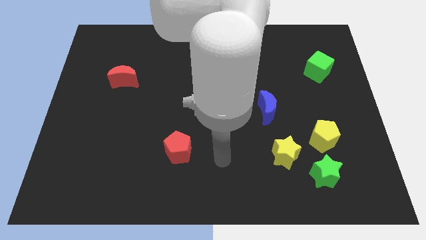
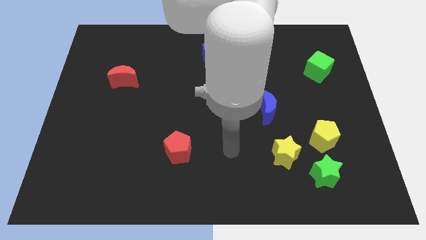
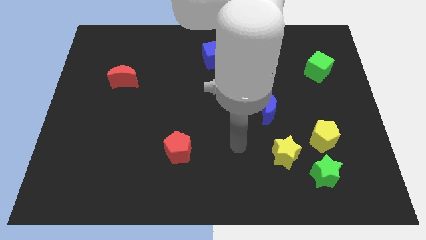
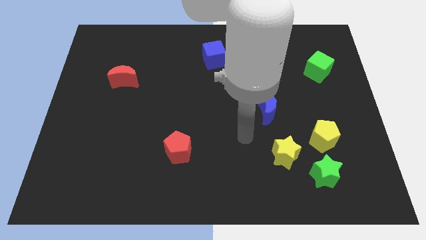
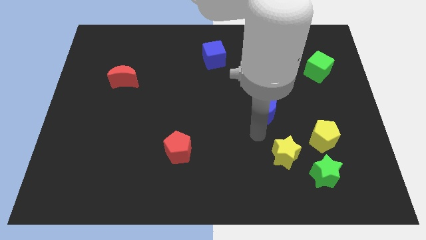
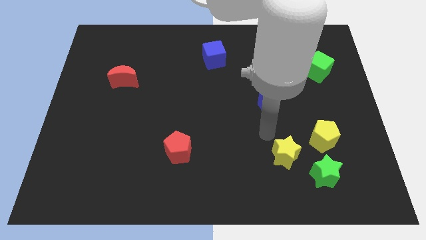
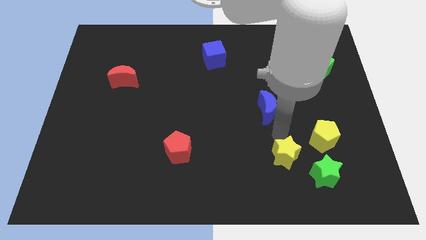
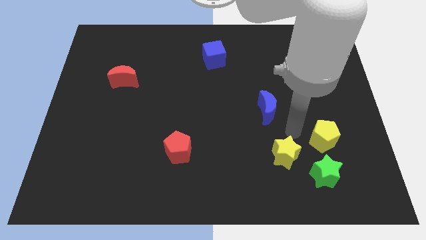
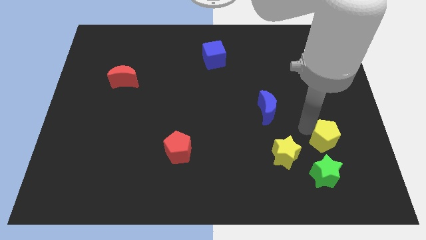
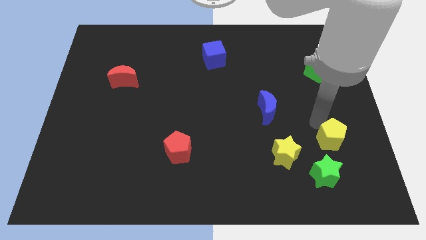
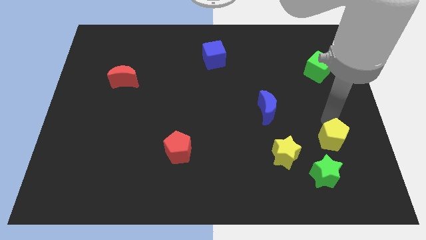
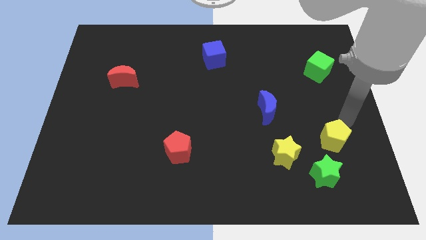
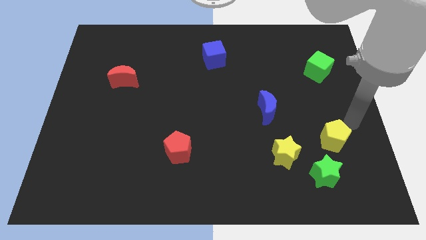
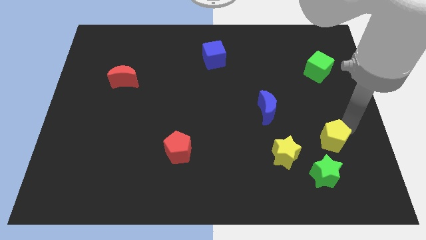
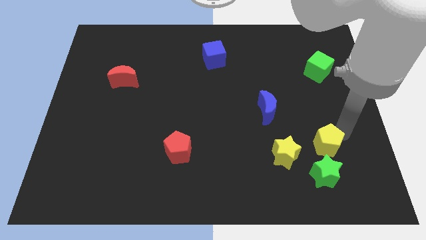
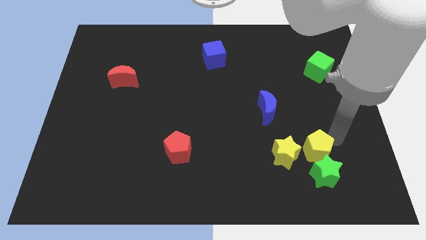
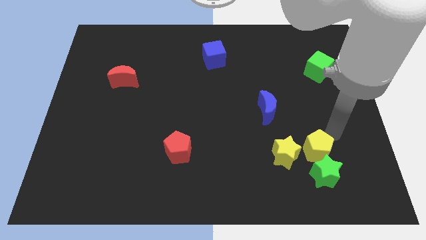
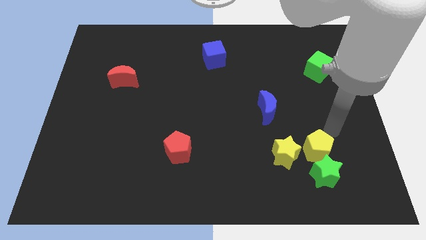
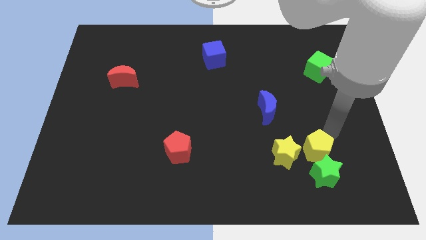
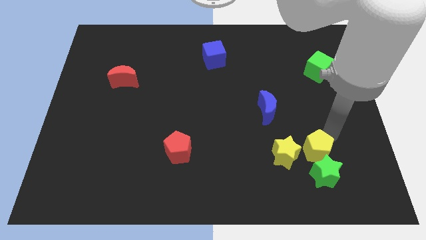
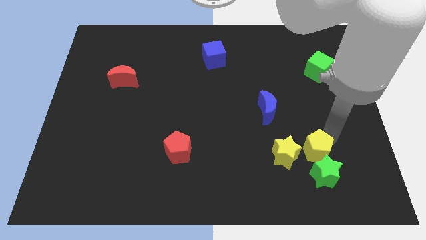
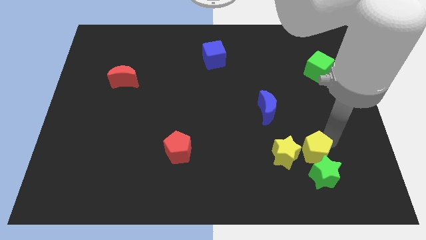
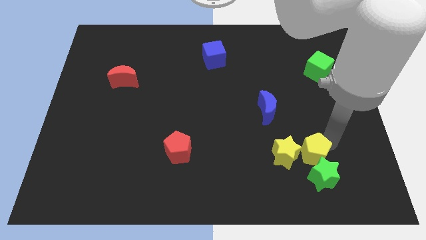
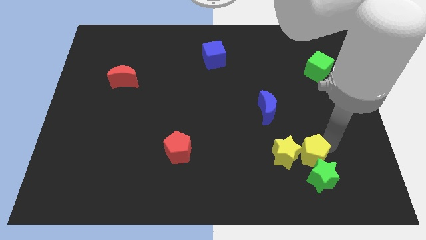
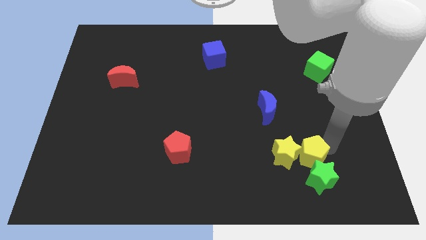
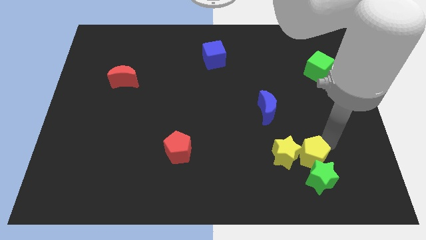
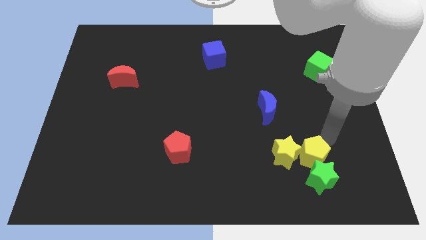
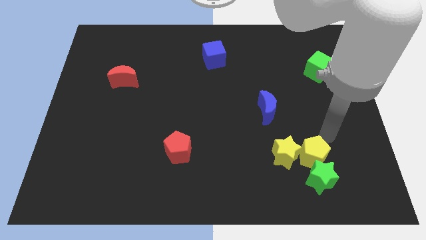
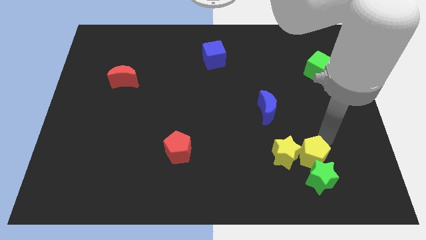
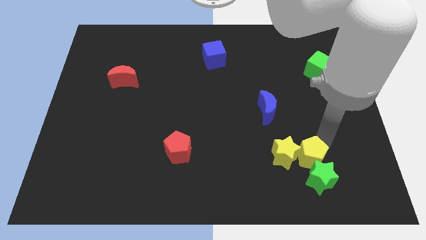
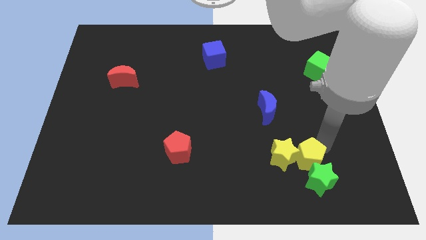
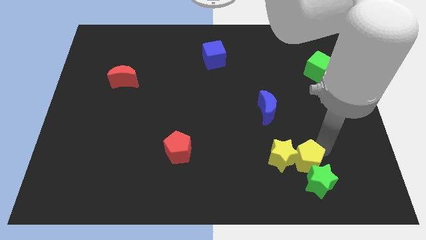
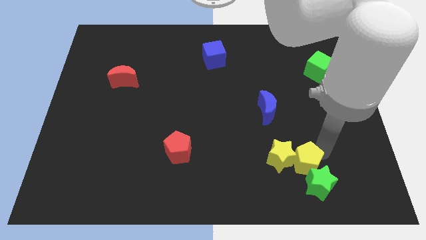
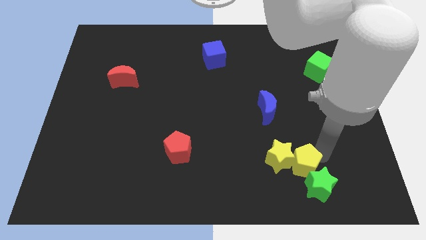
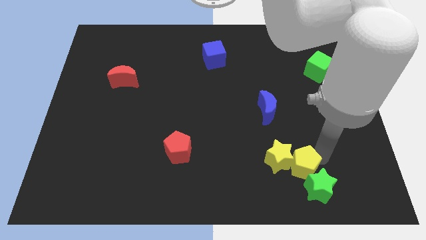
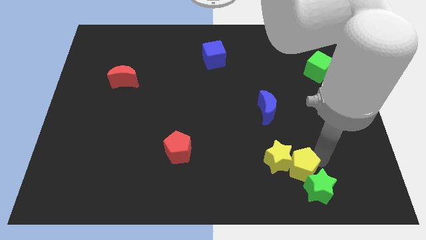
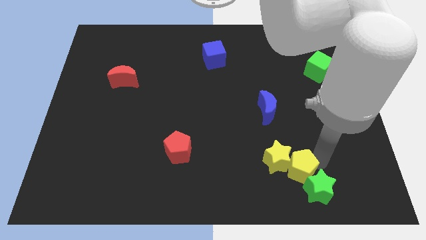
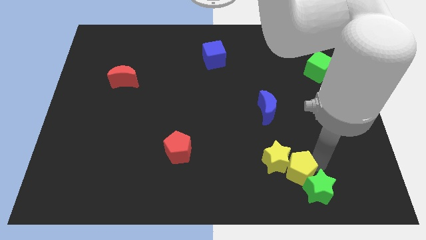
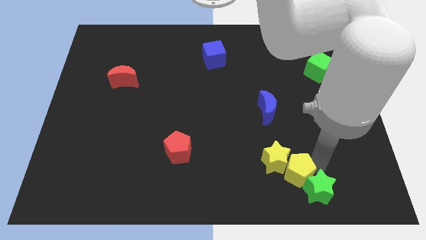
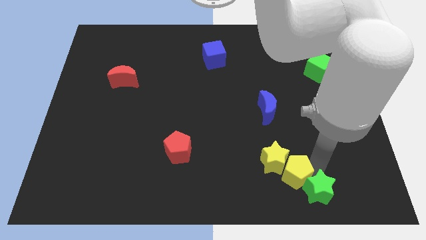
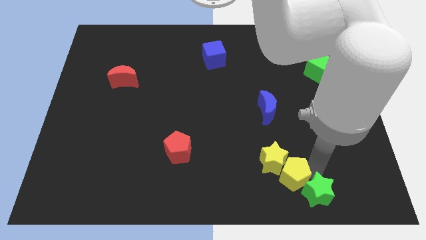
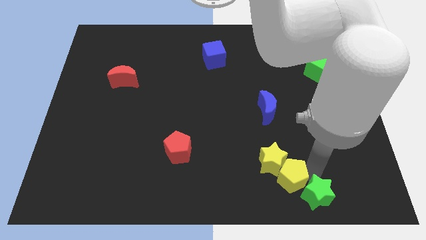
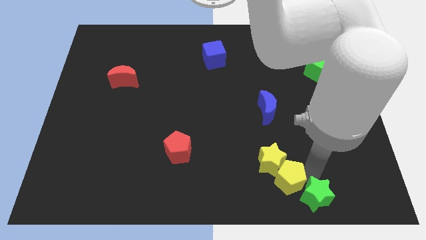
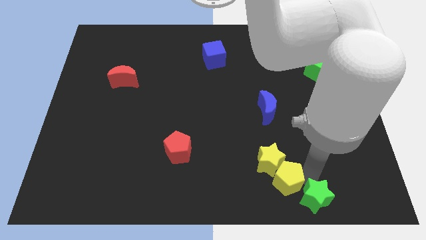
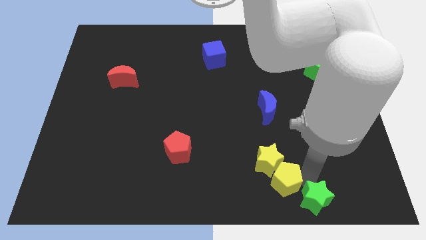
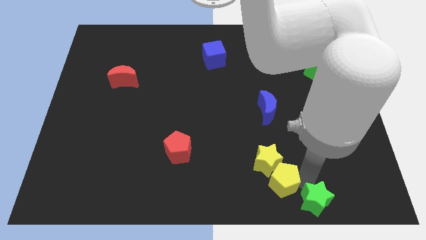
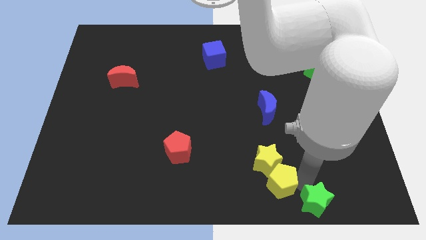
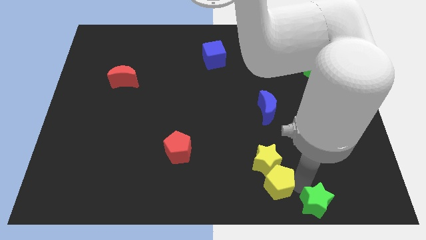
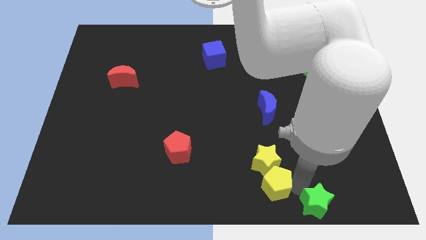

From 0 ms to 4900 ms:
push the yellow pentagon to the bottom side

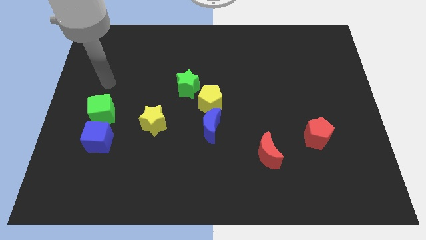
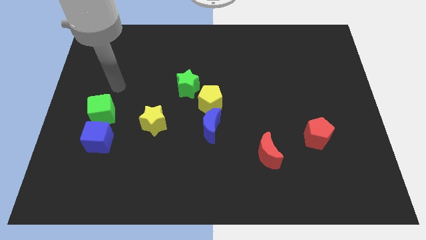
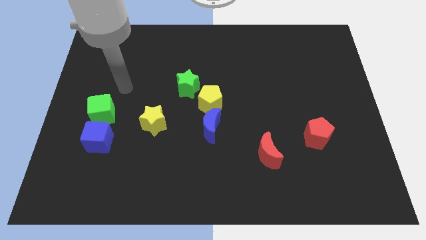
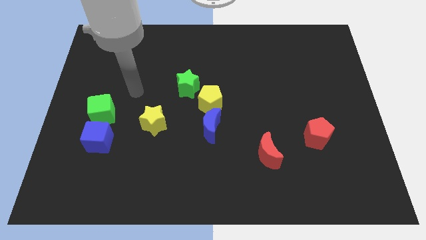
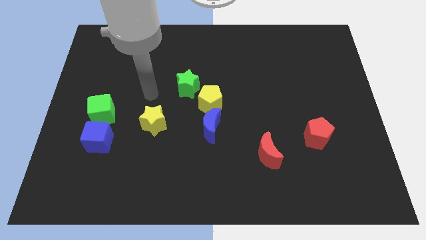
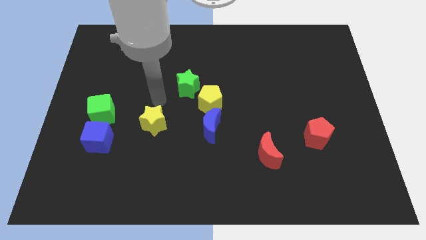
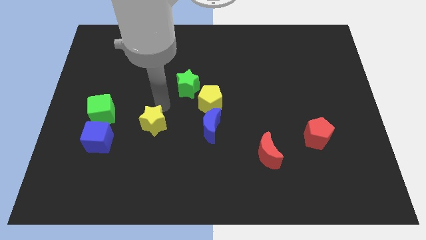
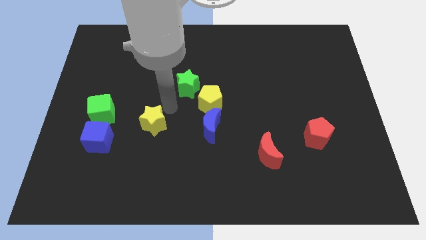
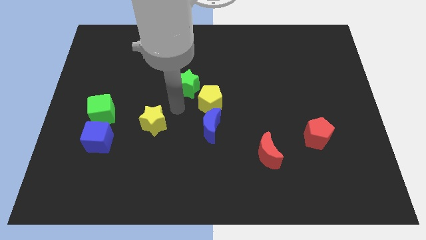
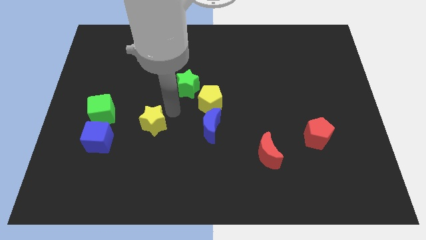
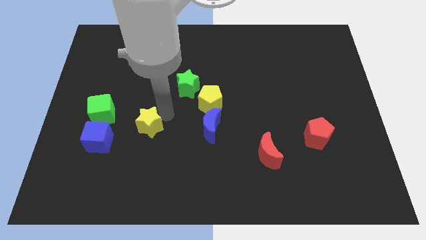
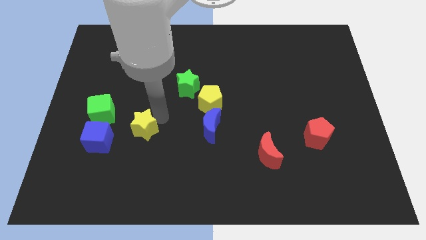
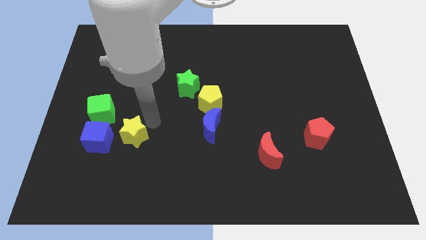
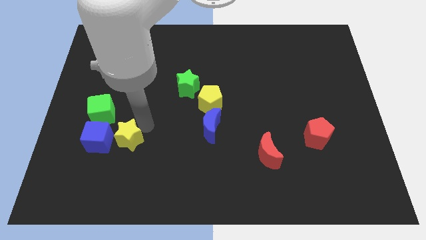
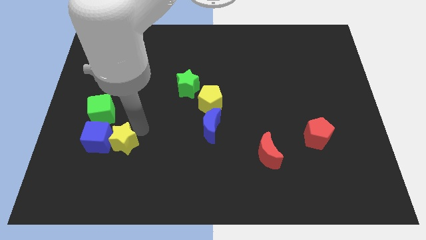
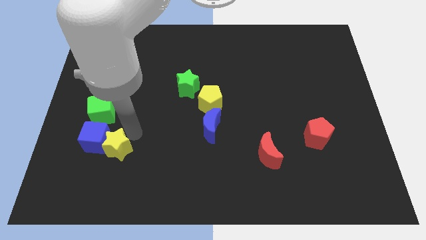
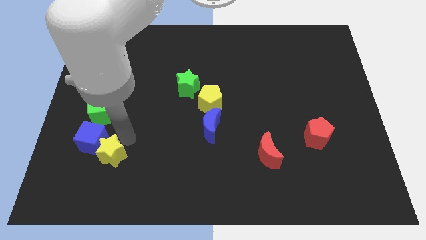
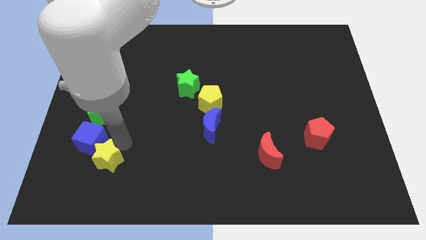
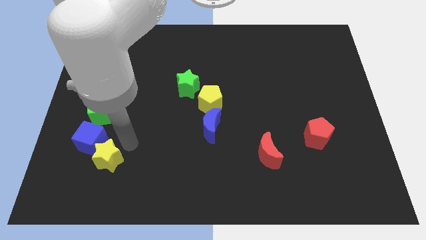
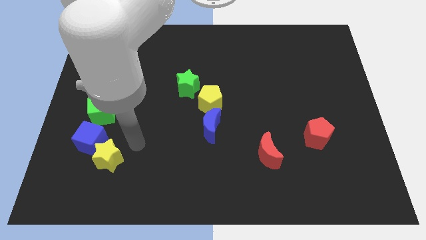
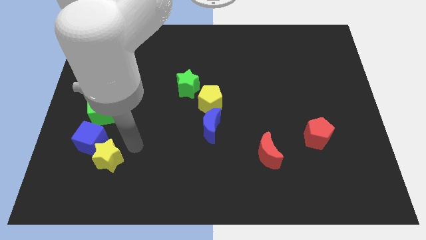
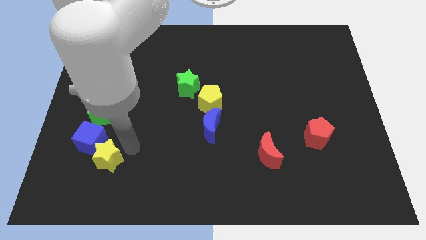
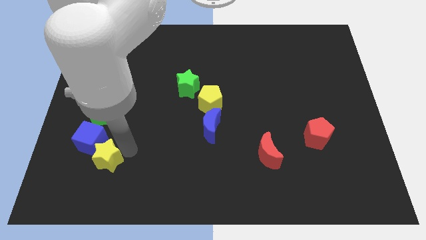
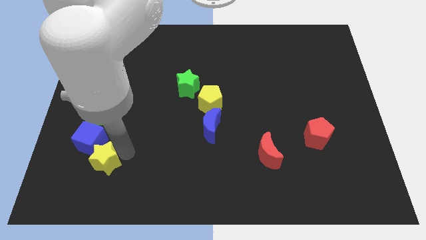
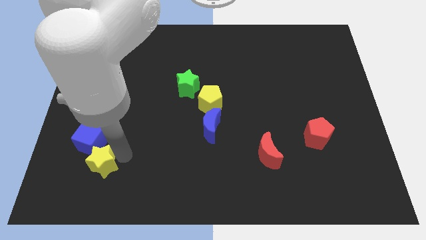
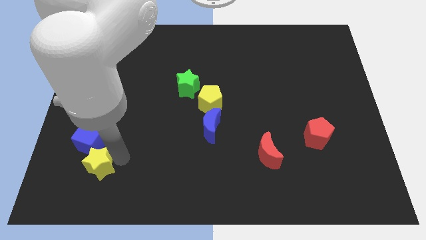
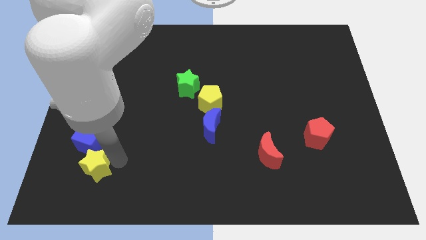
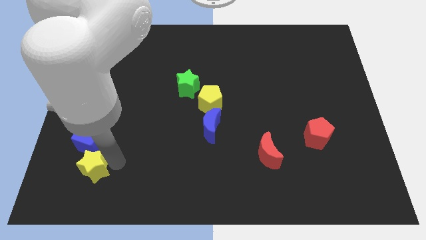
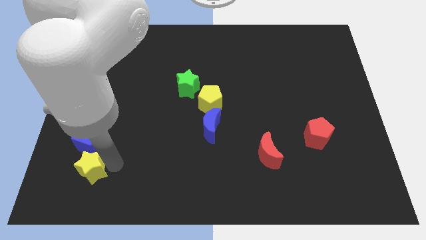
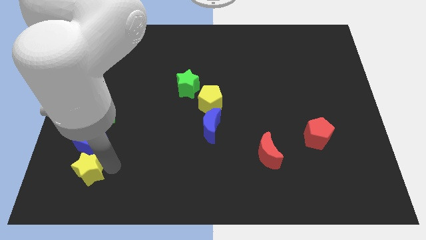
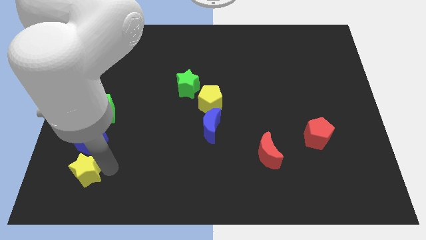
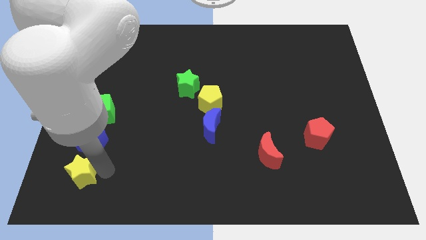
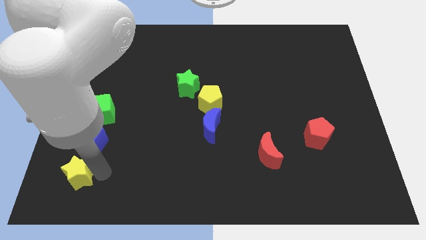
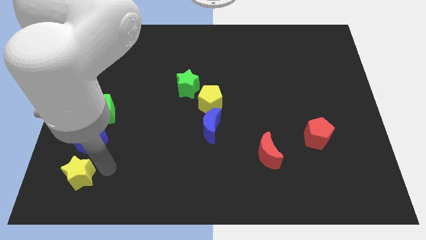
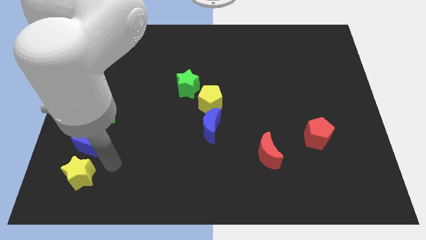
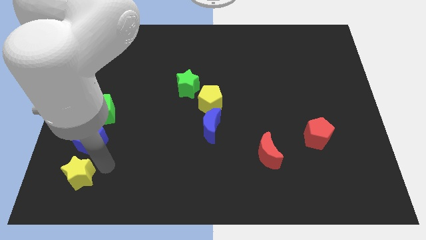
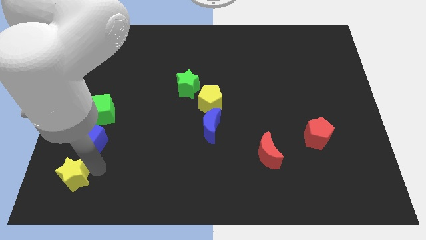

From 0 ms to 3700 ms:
slide the yellow star to the bottom left
